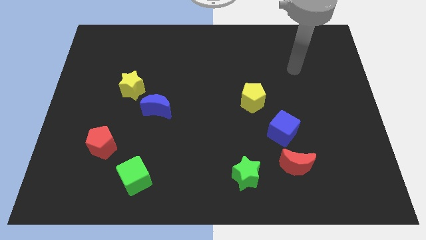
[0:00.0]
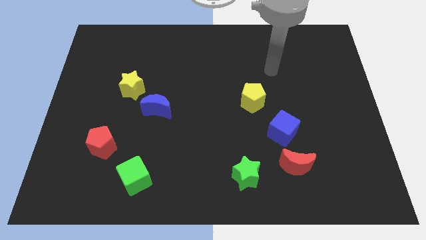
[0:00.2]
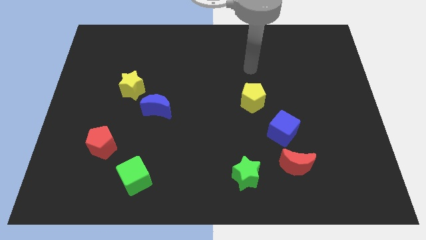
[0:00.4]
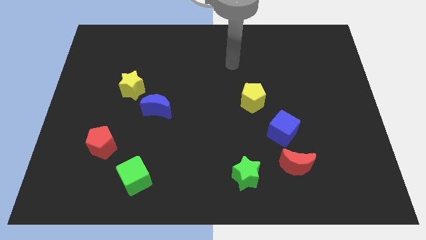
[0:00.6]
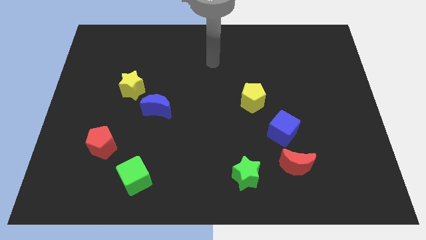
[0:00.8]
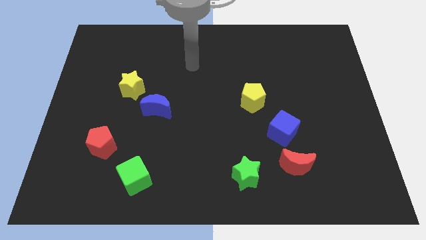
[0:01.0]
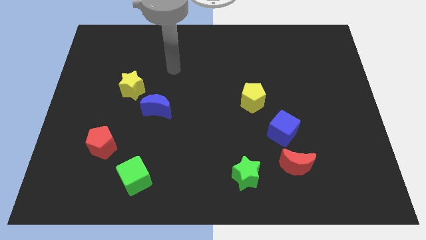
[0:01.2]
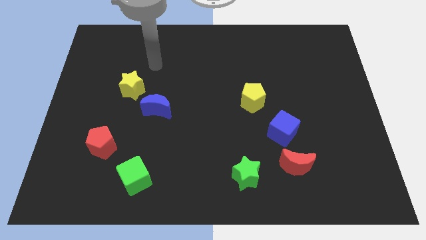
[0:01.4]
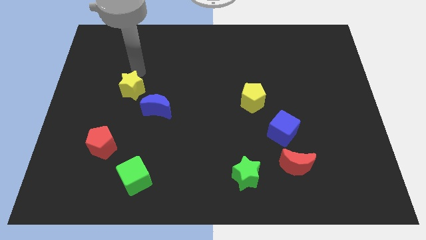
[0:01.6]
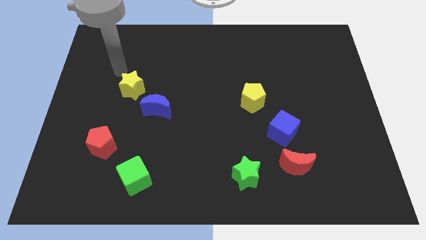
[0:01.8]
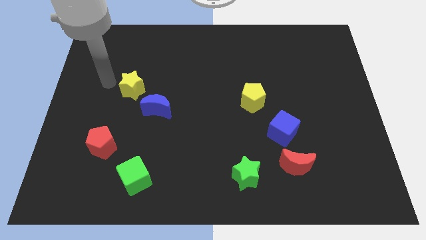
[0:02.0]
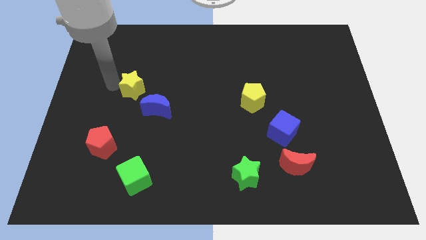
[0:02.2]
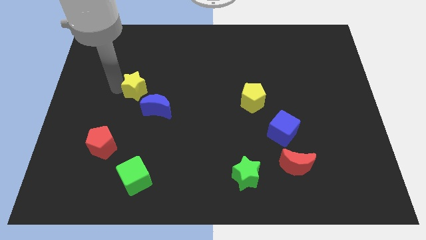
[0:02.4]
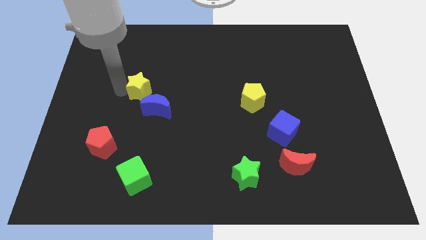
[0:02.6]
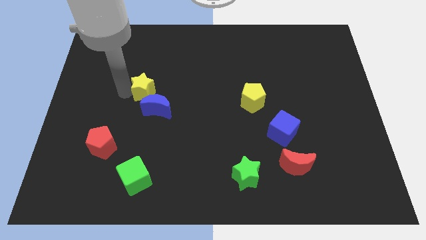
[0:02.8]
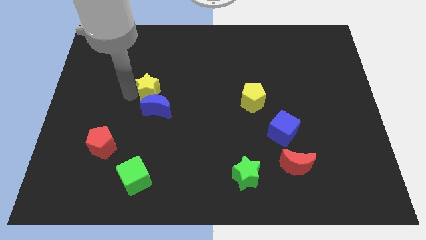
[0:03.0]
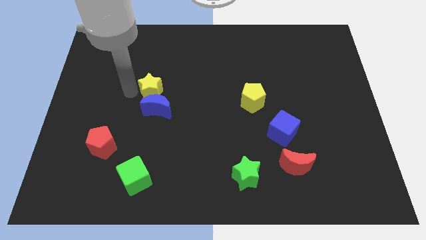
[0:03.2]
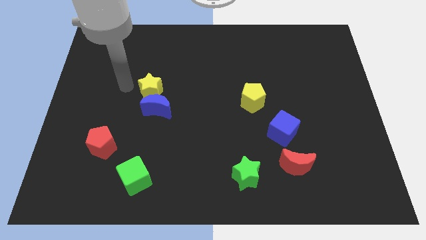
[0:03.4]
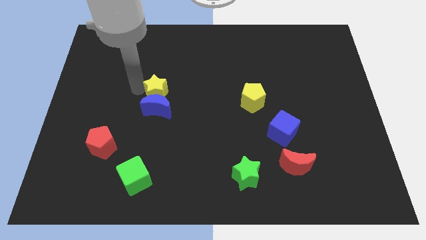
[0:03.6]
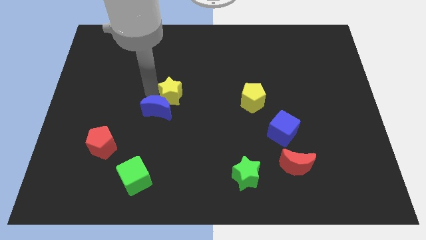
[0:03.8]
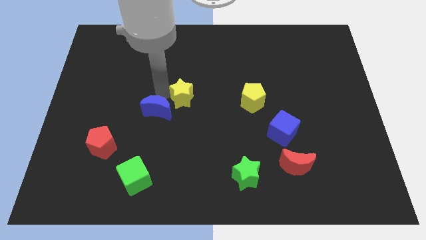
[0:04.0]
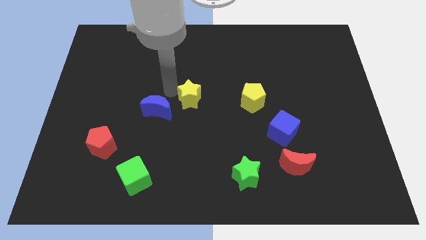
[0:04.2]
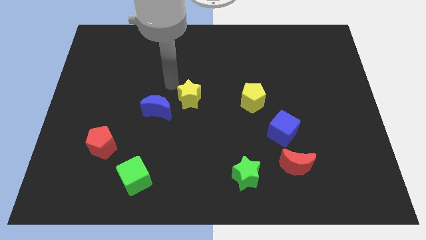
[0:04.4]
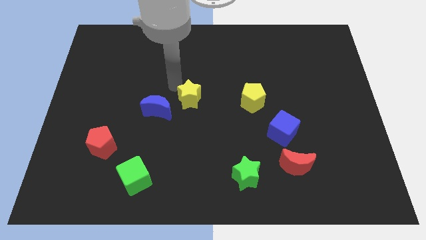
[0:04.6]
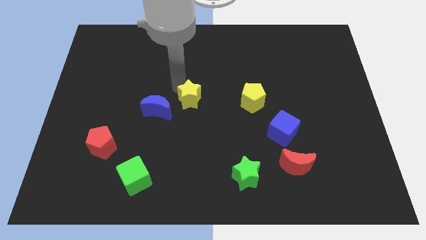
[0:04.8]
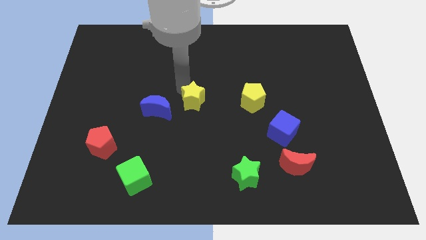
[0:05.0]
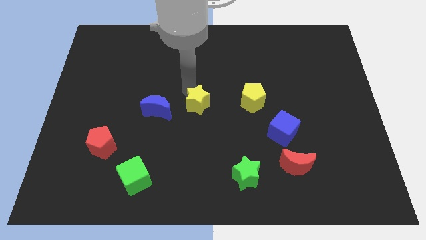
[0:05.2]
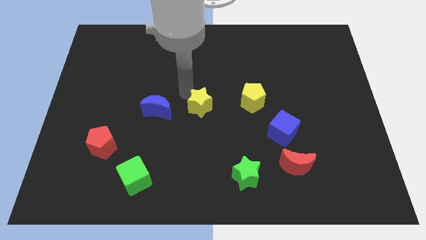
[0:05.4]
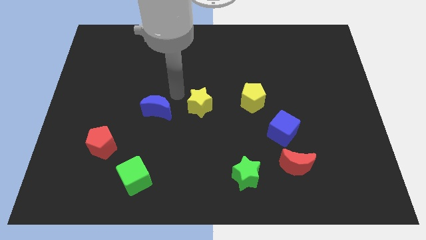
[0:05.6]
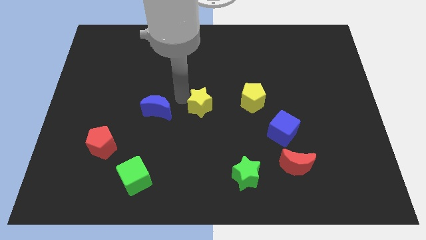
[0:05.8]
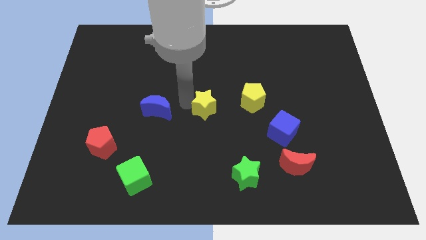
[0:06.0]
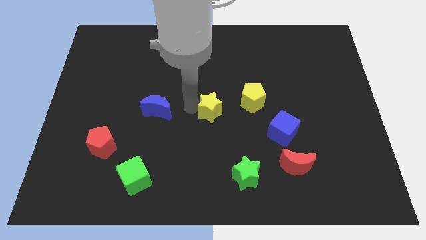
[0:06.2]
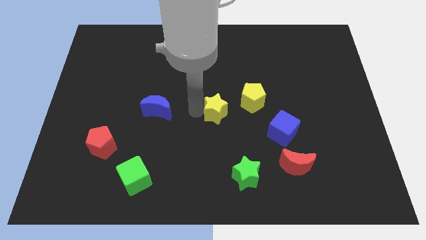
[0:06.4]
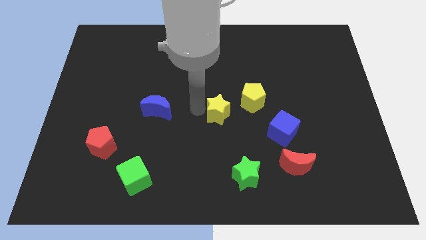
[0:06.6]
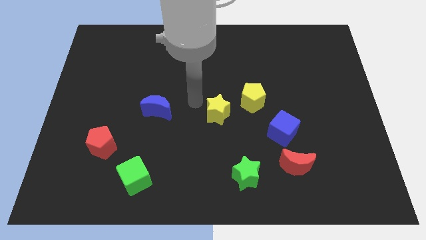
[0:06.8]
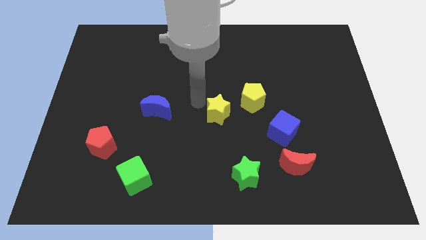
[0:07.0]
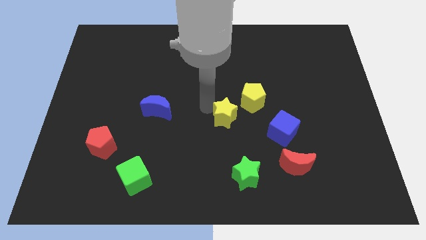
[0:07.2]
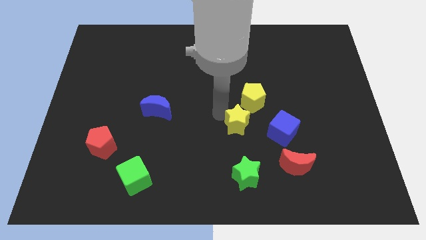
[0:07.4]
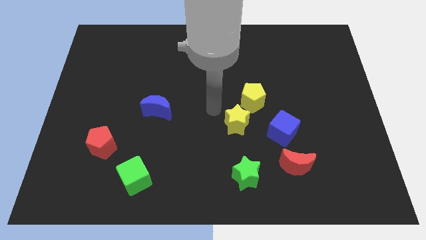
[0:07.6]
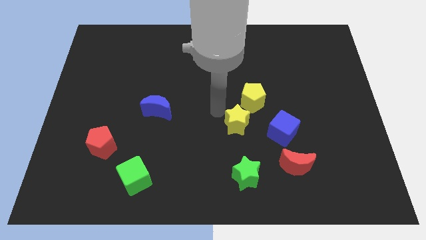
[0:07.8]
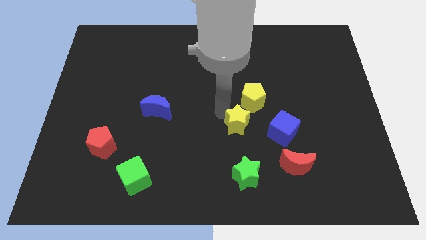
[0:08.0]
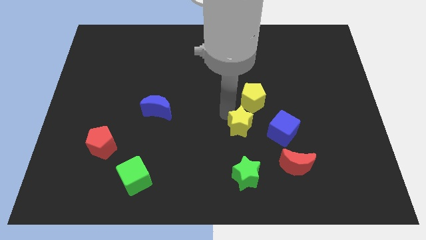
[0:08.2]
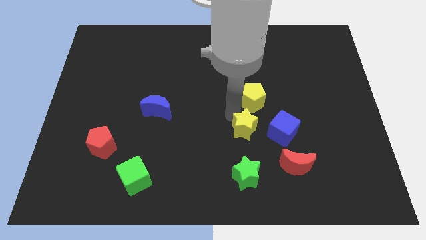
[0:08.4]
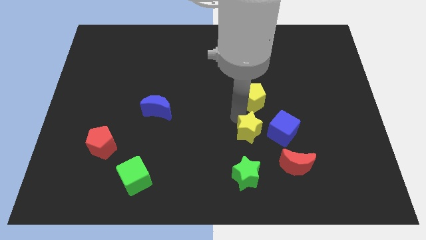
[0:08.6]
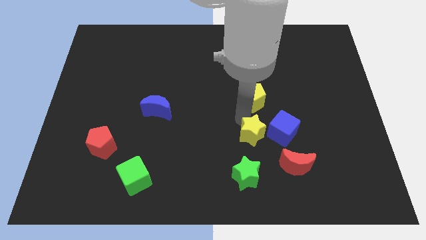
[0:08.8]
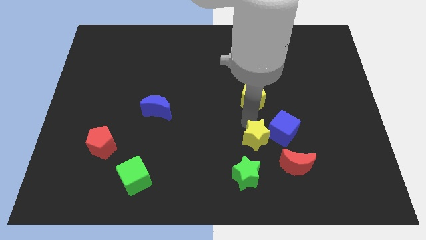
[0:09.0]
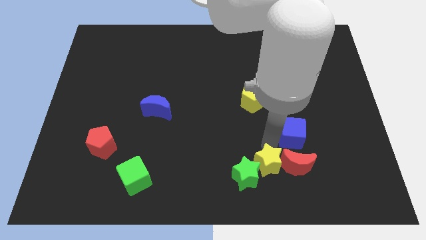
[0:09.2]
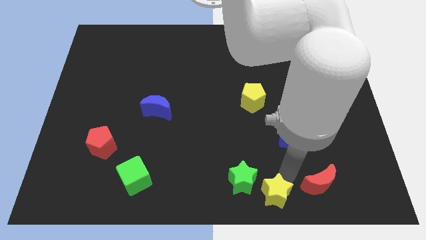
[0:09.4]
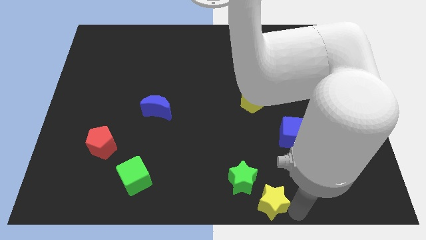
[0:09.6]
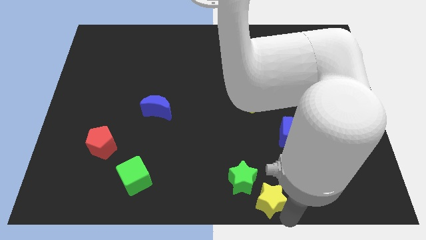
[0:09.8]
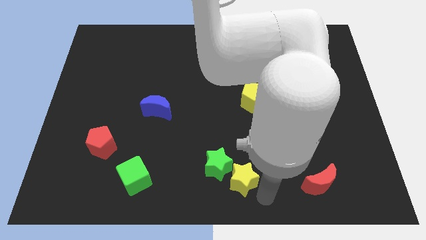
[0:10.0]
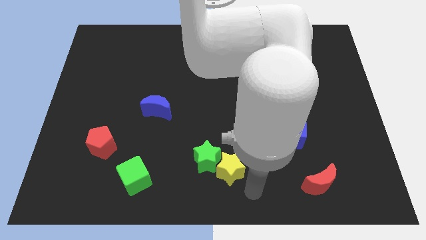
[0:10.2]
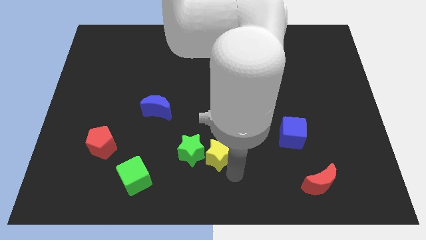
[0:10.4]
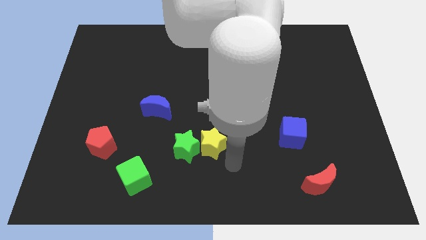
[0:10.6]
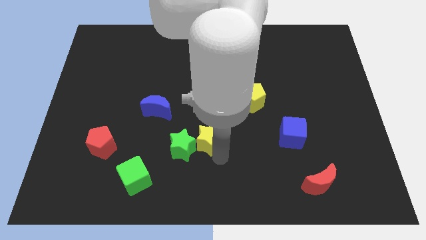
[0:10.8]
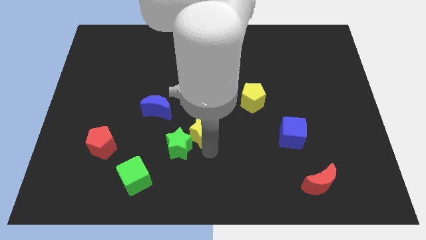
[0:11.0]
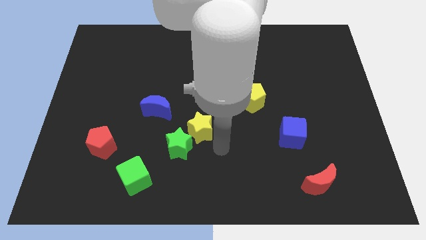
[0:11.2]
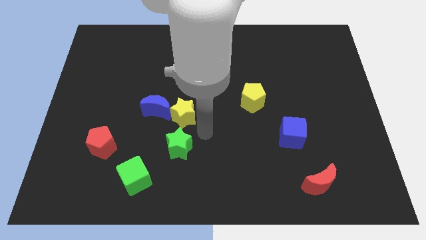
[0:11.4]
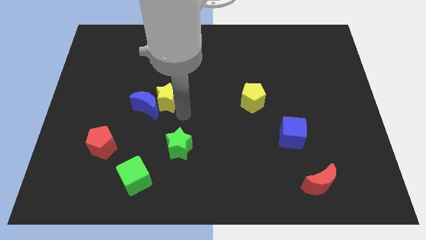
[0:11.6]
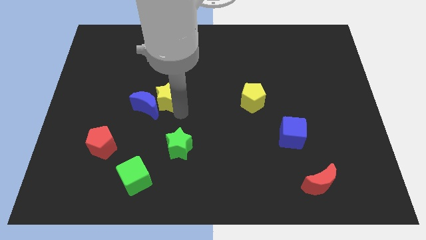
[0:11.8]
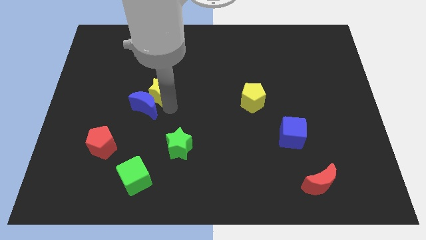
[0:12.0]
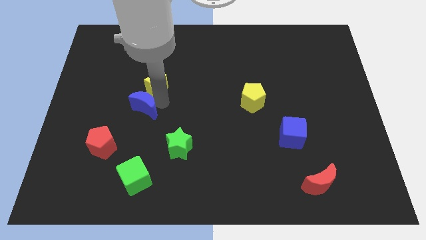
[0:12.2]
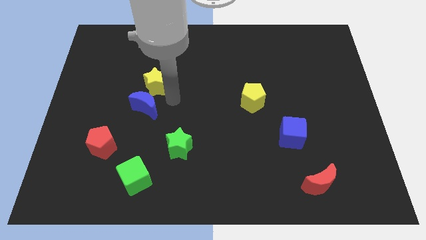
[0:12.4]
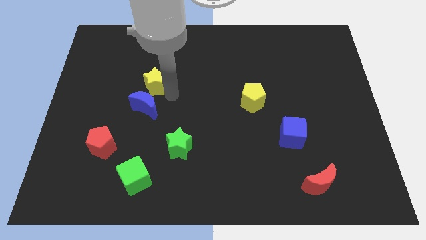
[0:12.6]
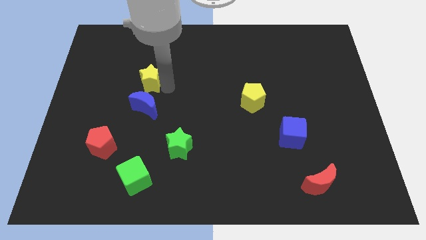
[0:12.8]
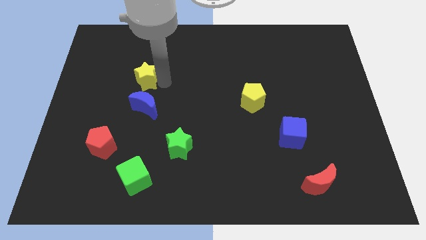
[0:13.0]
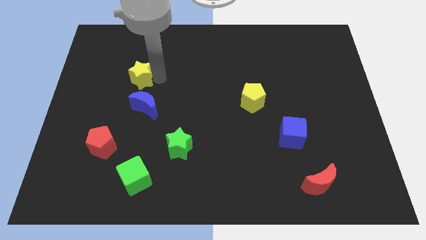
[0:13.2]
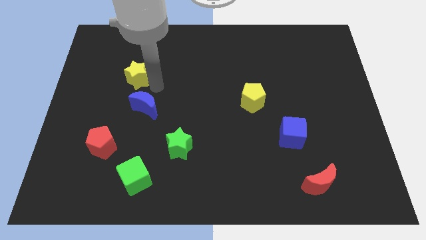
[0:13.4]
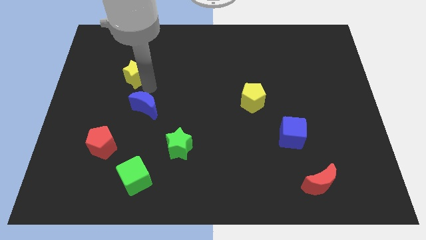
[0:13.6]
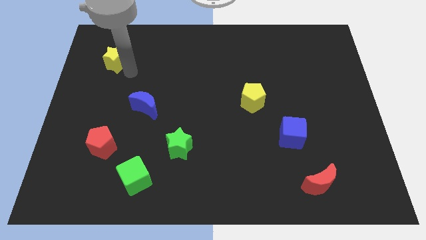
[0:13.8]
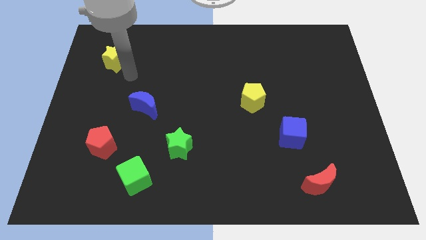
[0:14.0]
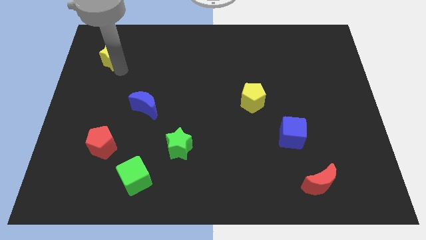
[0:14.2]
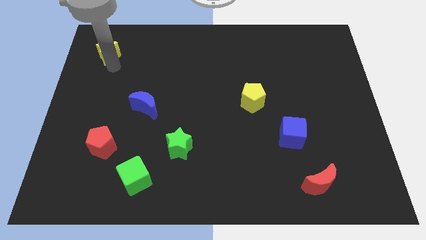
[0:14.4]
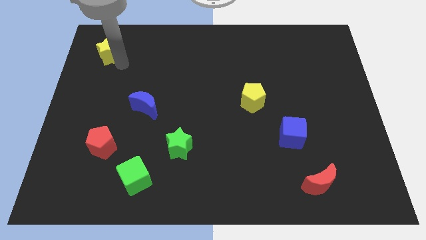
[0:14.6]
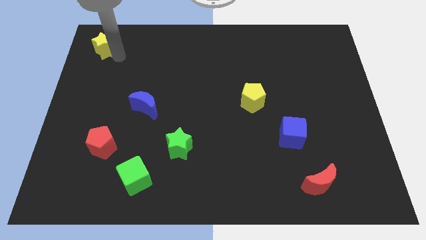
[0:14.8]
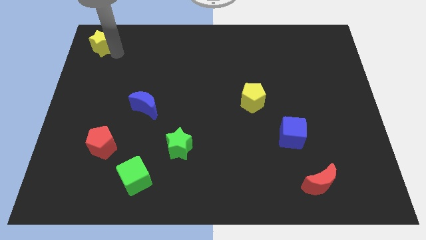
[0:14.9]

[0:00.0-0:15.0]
move the yellow star to the top left

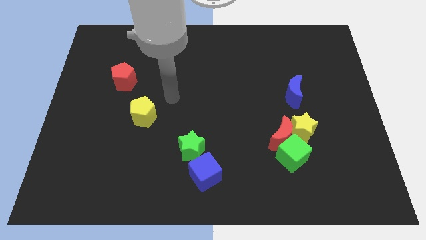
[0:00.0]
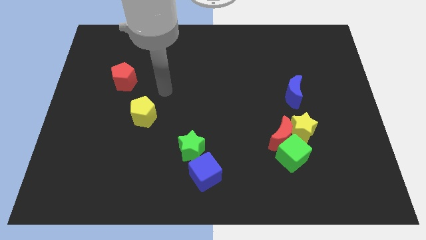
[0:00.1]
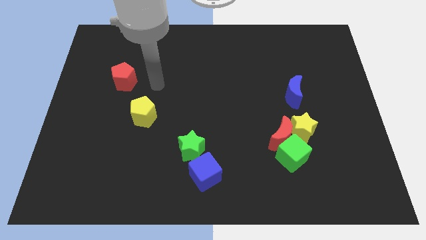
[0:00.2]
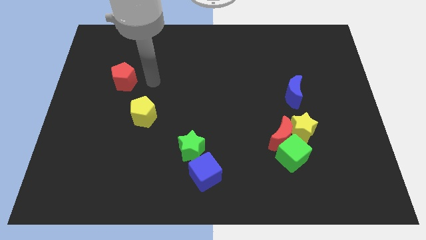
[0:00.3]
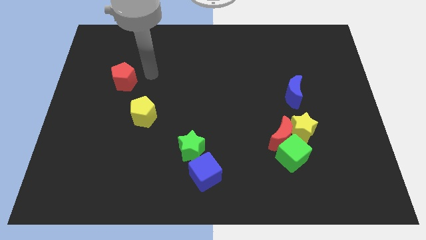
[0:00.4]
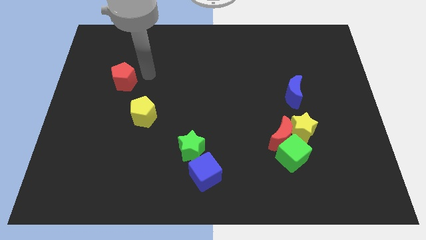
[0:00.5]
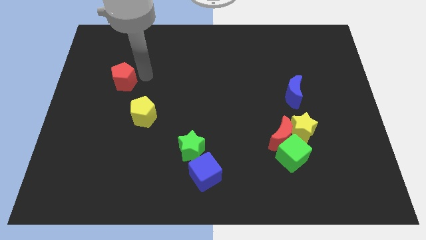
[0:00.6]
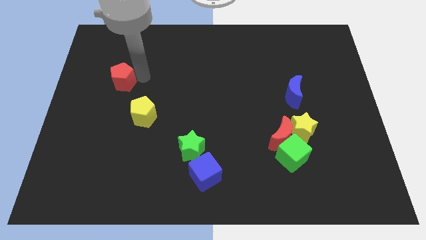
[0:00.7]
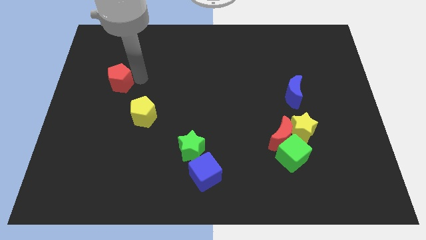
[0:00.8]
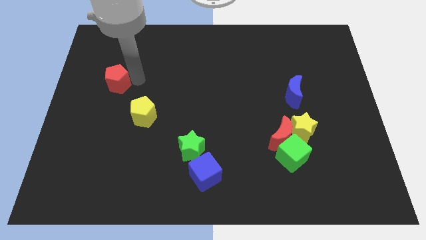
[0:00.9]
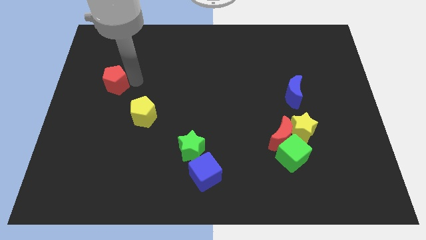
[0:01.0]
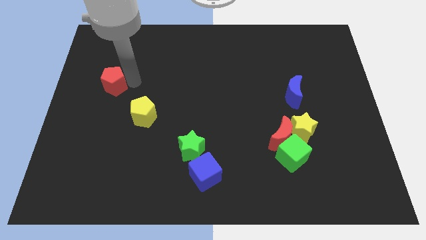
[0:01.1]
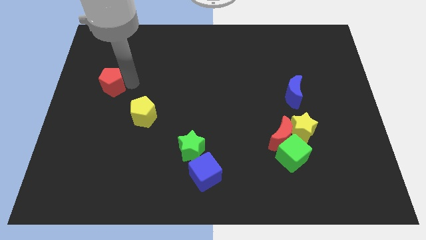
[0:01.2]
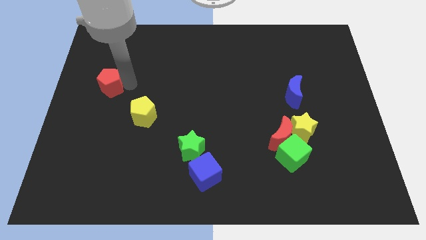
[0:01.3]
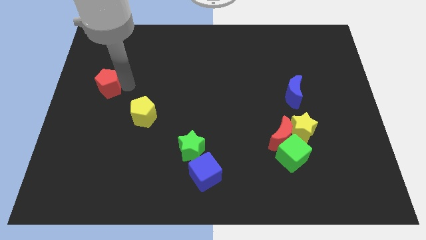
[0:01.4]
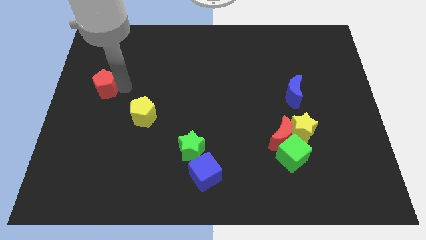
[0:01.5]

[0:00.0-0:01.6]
put the red pentagon to the left side
